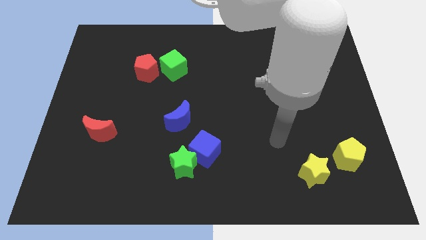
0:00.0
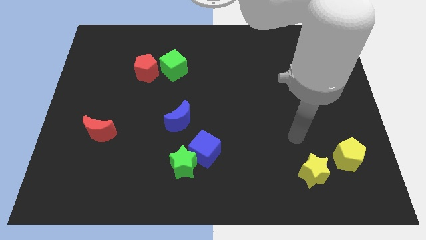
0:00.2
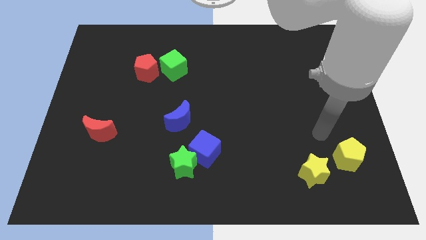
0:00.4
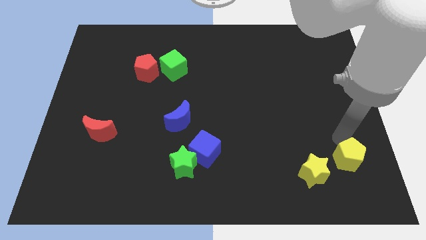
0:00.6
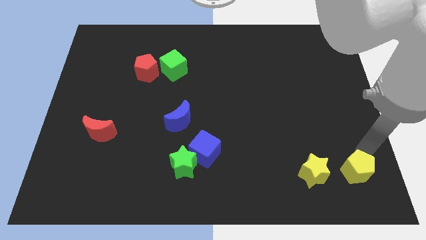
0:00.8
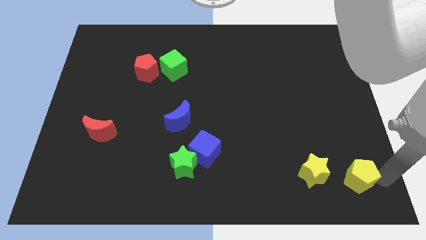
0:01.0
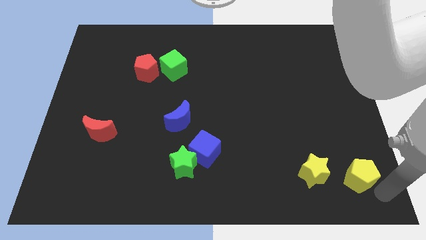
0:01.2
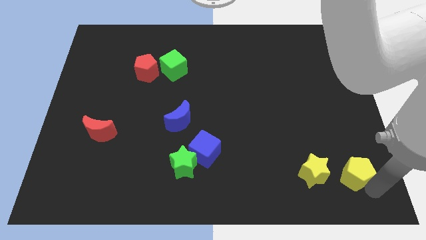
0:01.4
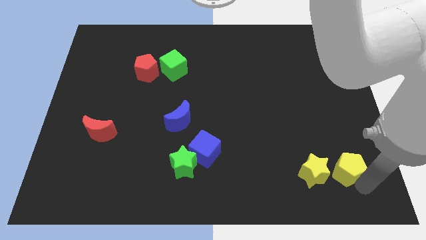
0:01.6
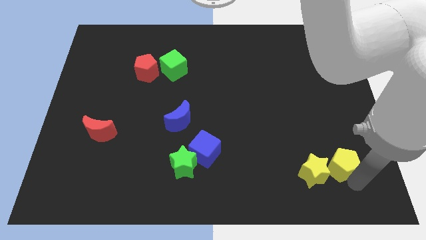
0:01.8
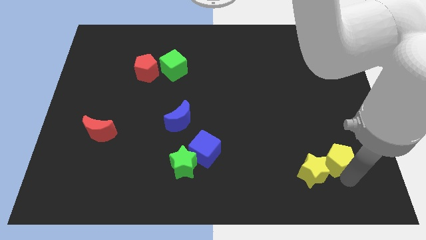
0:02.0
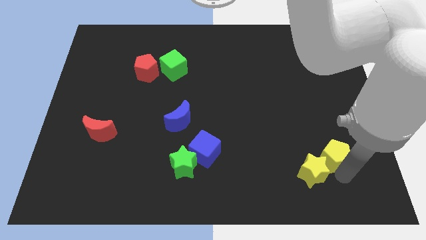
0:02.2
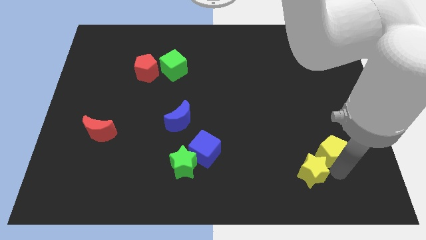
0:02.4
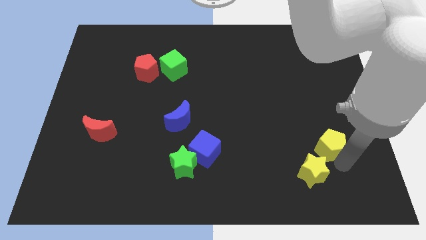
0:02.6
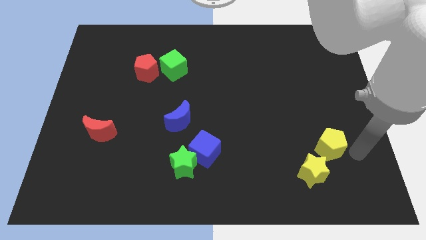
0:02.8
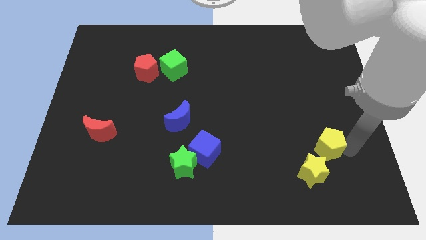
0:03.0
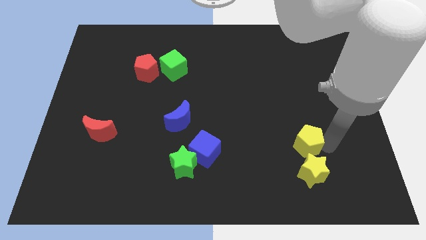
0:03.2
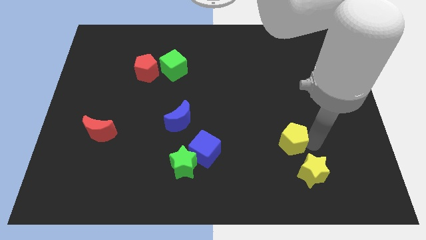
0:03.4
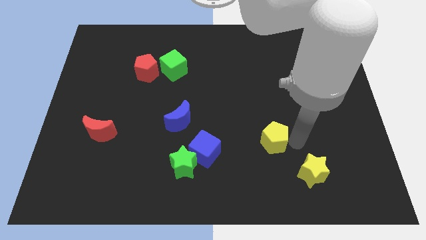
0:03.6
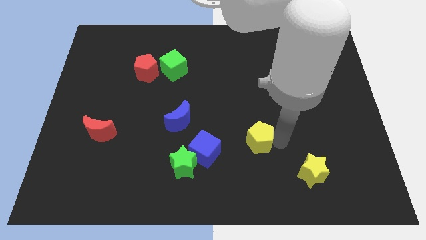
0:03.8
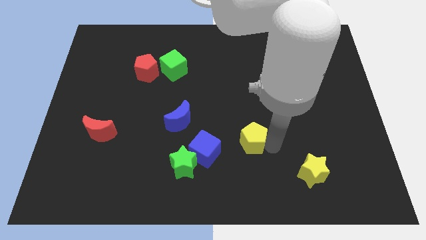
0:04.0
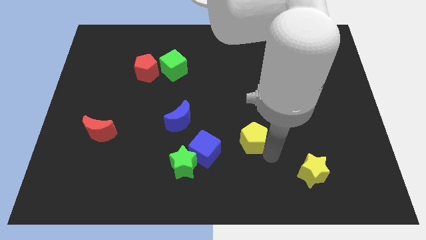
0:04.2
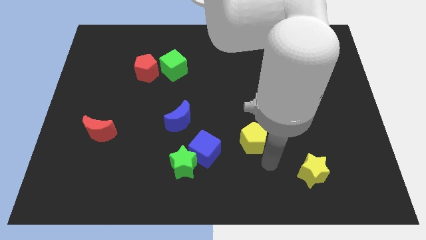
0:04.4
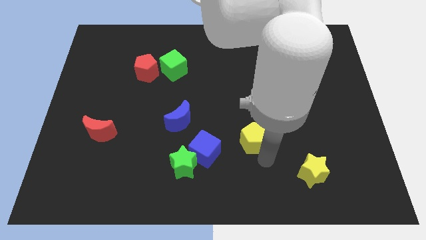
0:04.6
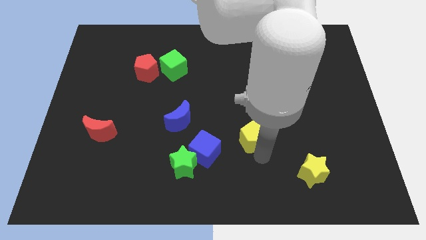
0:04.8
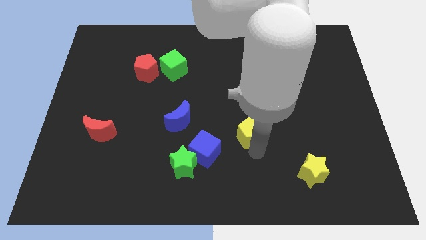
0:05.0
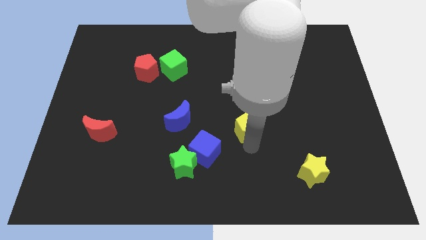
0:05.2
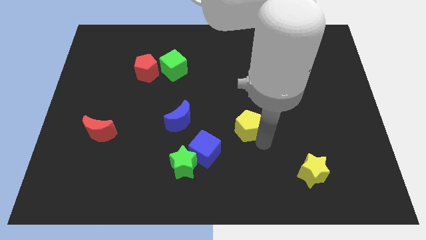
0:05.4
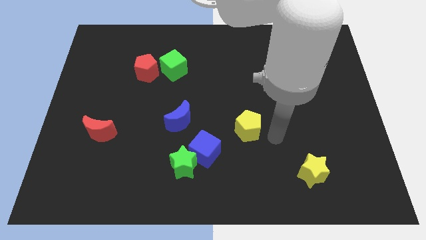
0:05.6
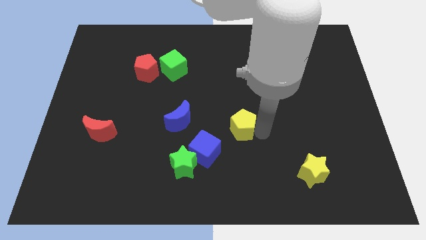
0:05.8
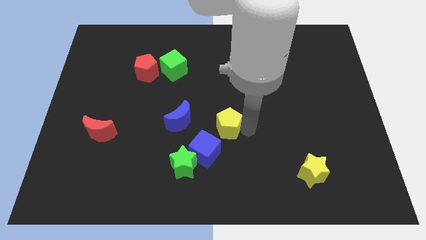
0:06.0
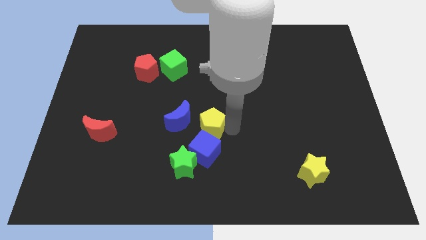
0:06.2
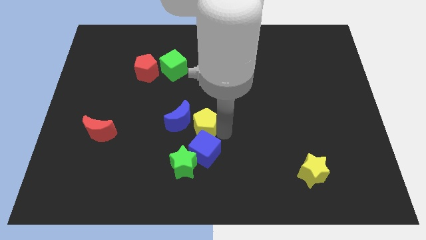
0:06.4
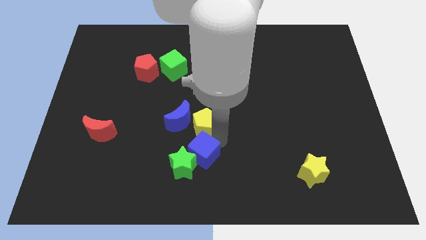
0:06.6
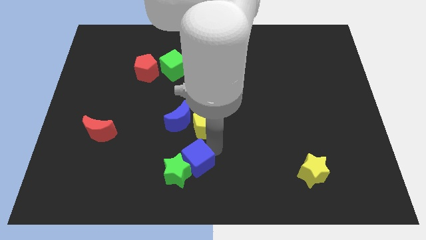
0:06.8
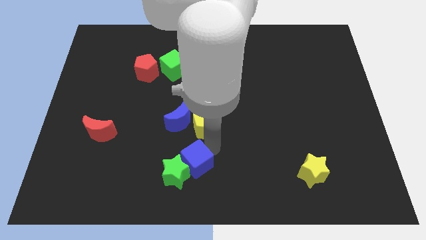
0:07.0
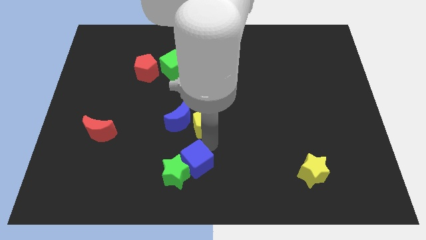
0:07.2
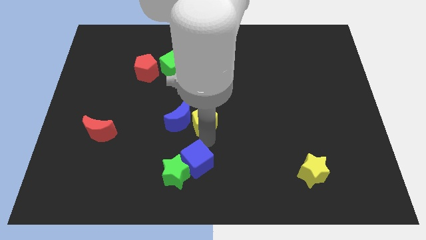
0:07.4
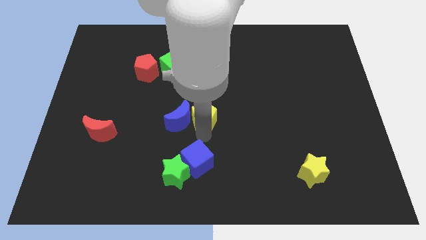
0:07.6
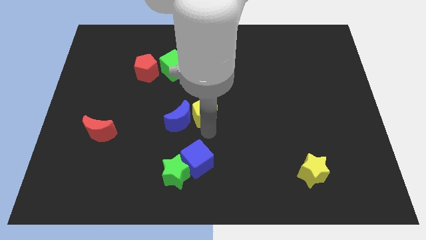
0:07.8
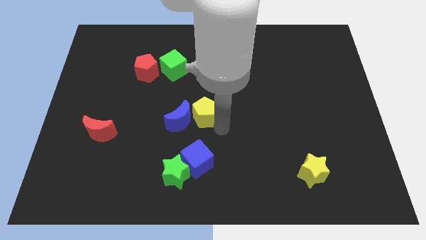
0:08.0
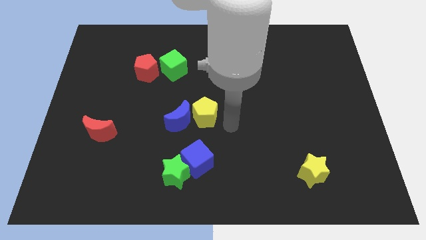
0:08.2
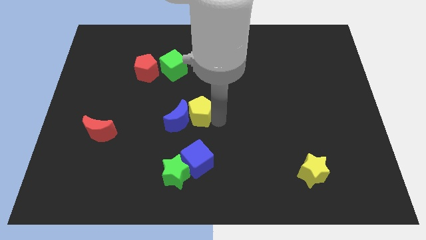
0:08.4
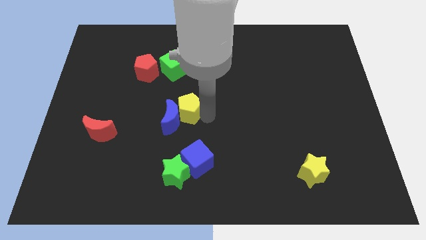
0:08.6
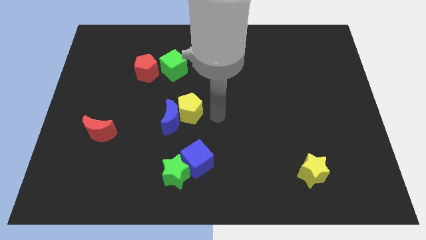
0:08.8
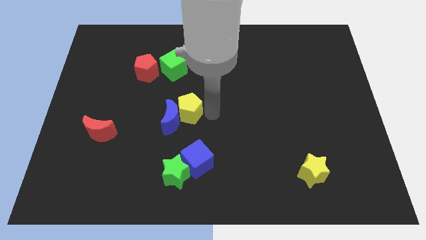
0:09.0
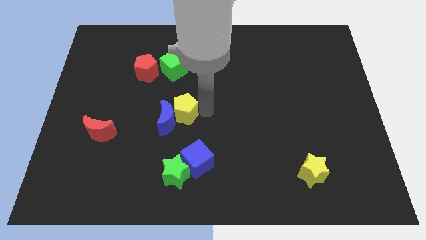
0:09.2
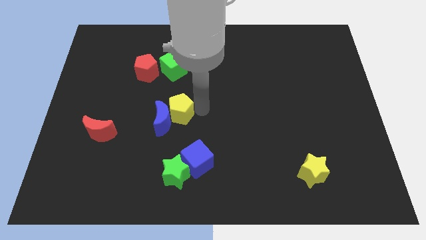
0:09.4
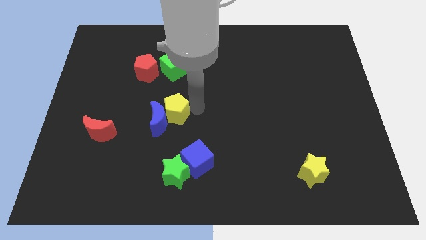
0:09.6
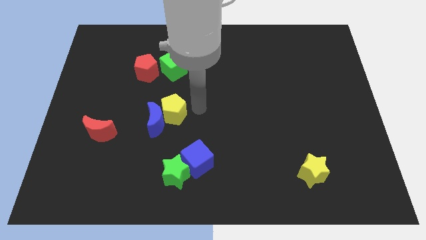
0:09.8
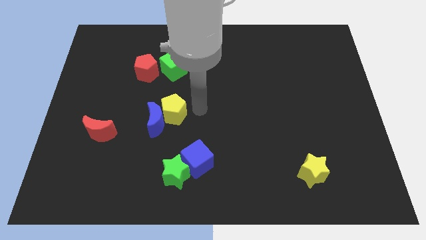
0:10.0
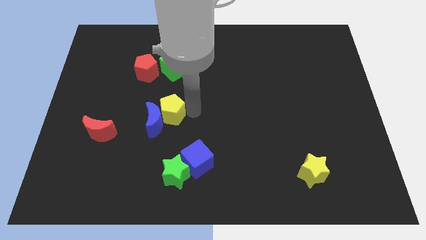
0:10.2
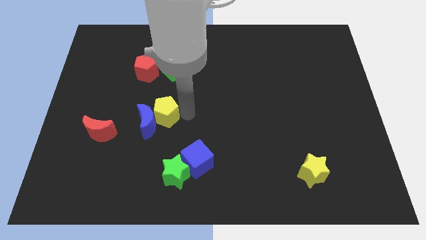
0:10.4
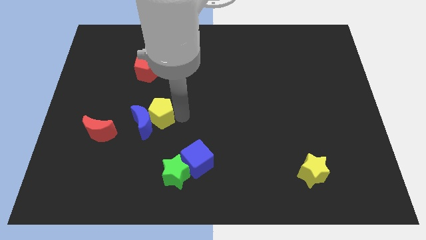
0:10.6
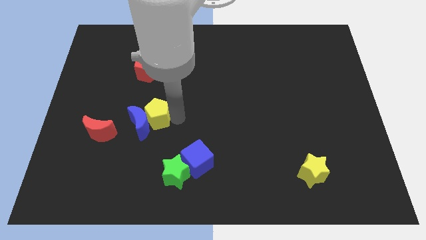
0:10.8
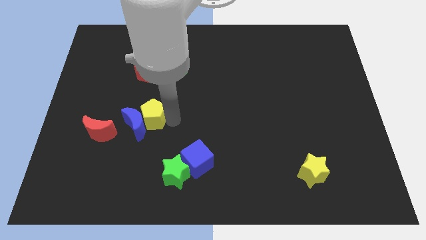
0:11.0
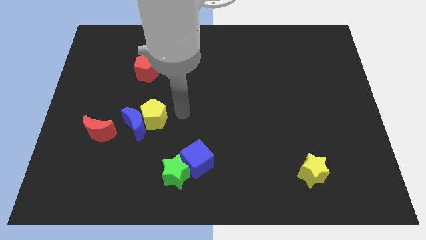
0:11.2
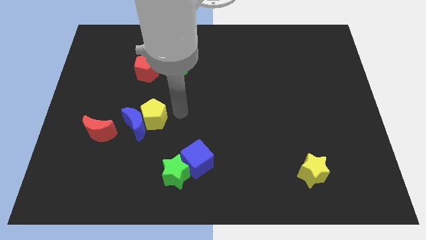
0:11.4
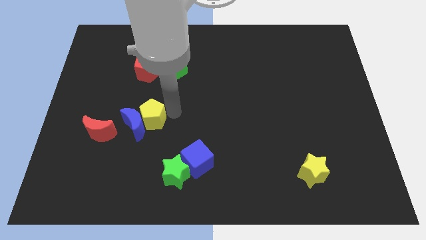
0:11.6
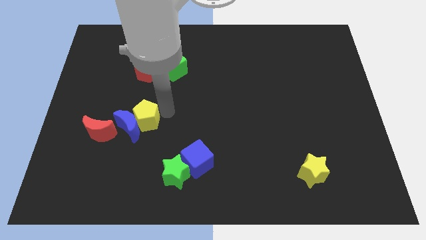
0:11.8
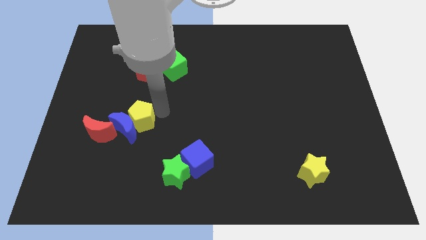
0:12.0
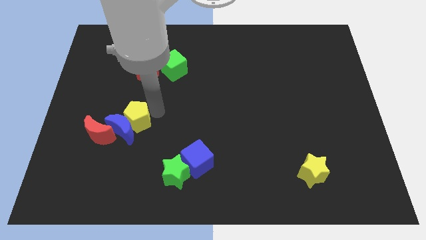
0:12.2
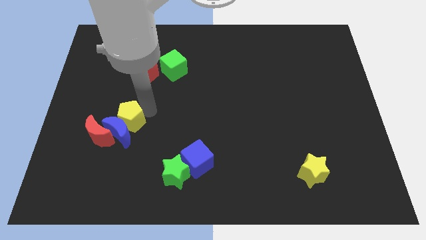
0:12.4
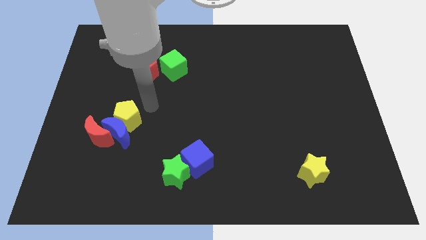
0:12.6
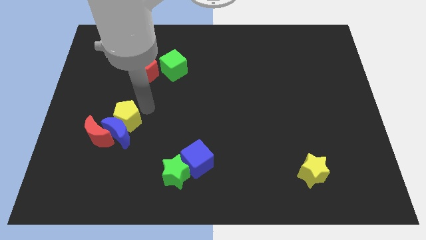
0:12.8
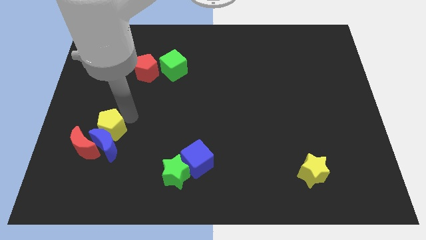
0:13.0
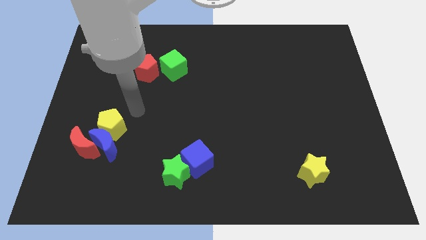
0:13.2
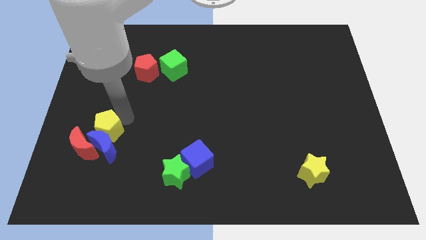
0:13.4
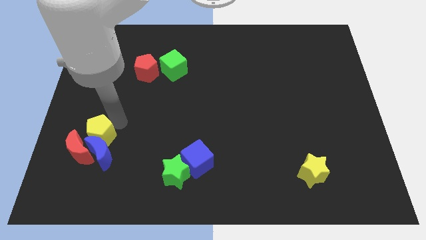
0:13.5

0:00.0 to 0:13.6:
slide the yellow pentagon next to the red moon

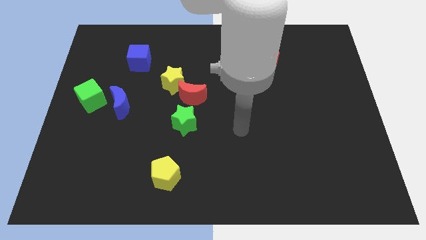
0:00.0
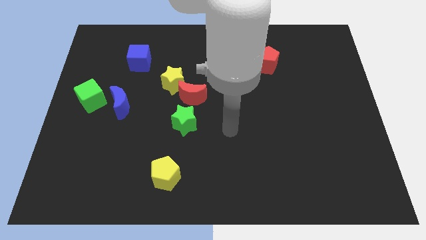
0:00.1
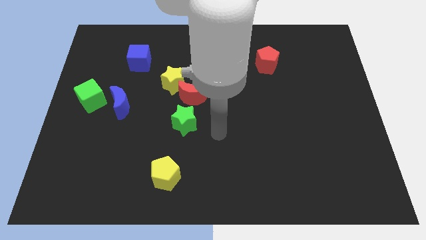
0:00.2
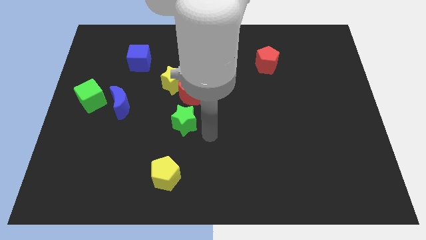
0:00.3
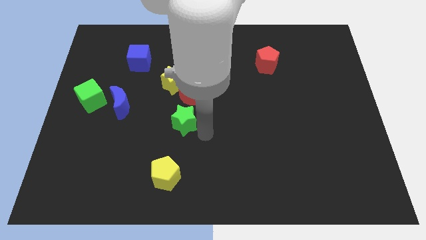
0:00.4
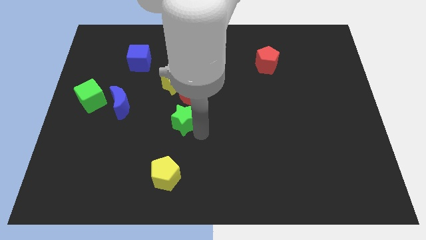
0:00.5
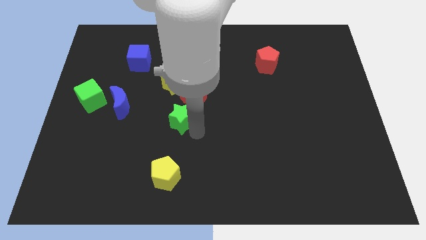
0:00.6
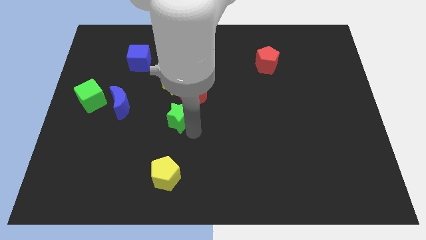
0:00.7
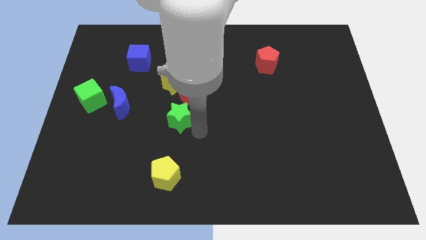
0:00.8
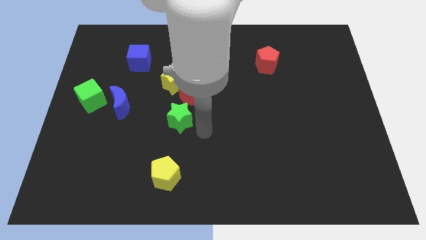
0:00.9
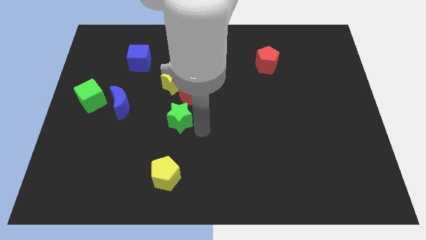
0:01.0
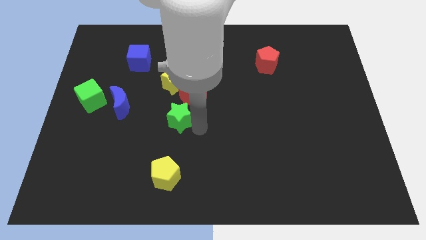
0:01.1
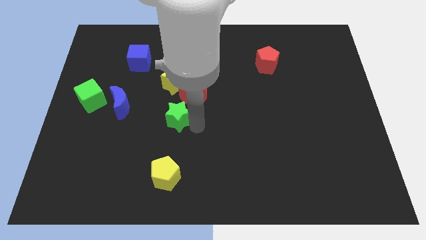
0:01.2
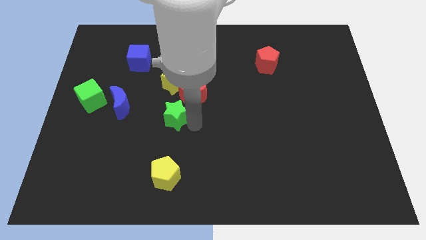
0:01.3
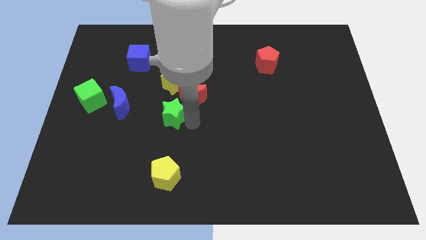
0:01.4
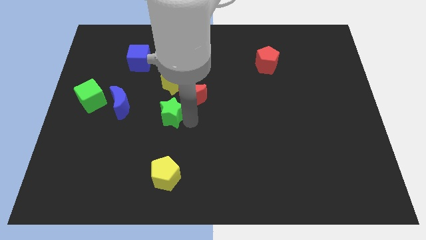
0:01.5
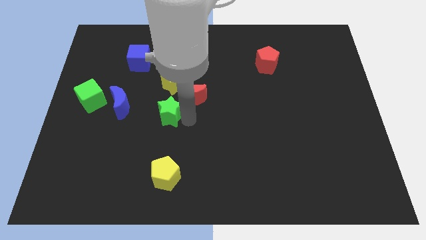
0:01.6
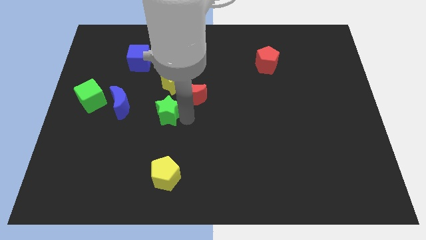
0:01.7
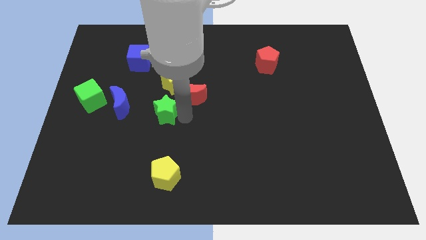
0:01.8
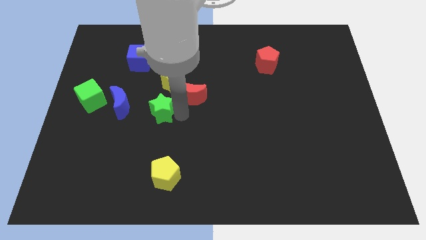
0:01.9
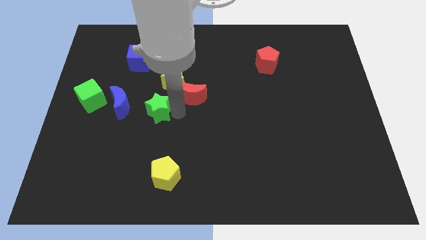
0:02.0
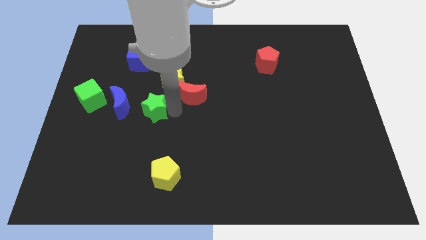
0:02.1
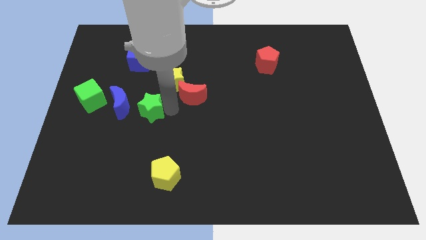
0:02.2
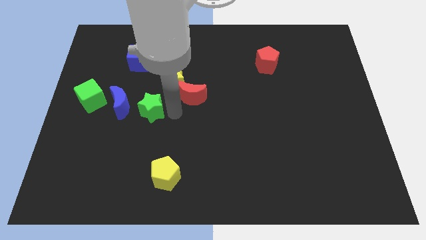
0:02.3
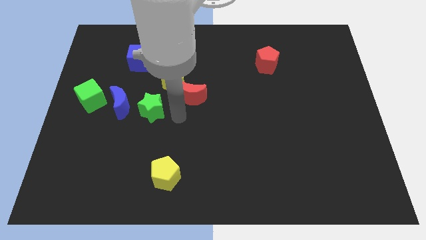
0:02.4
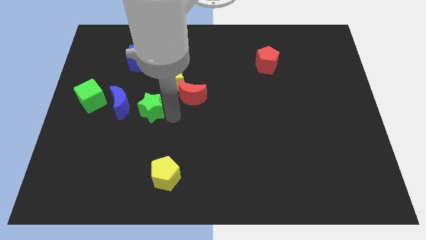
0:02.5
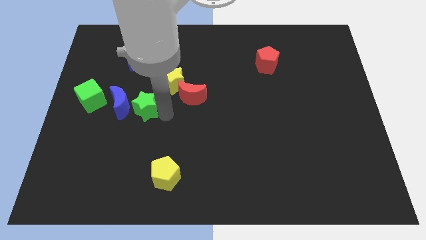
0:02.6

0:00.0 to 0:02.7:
move the green star close to the blue moon
